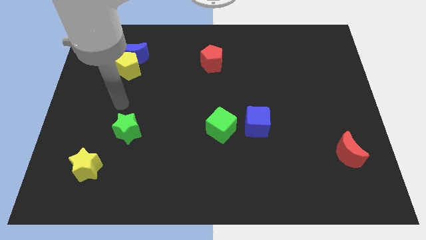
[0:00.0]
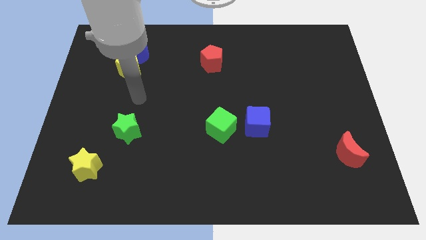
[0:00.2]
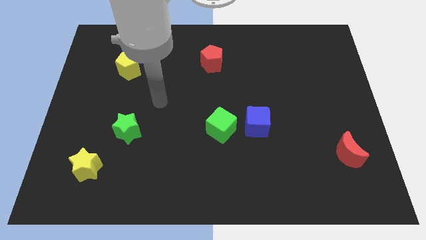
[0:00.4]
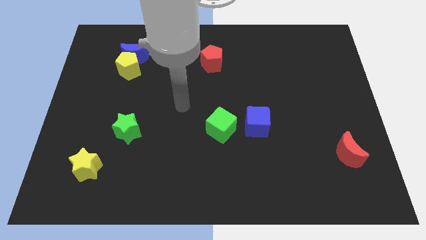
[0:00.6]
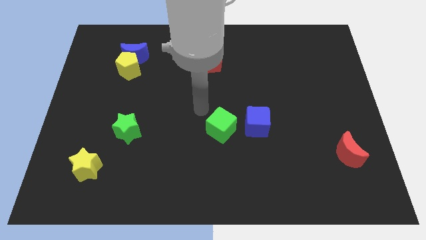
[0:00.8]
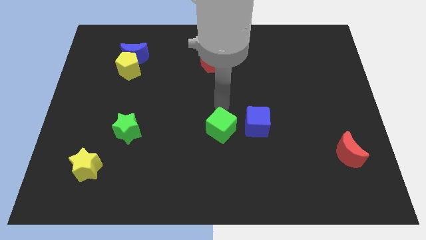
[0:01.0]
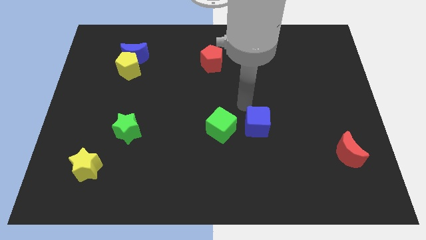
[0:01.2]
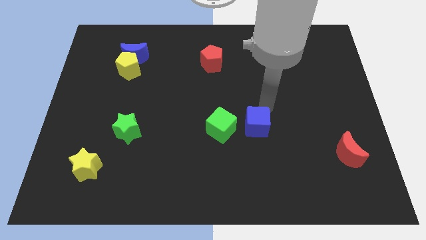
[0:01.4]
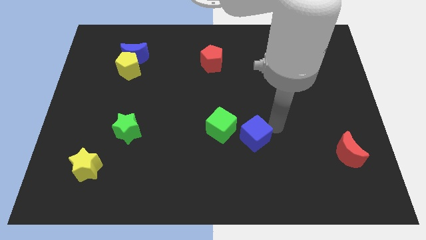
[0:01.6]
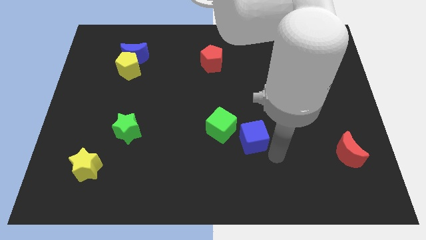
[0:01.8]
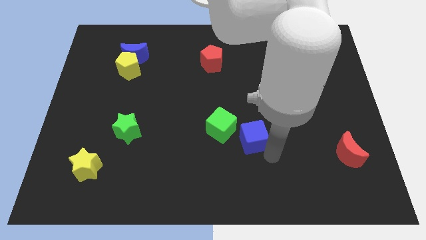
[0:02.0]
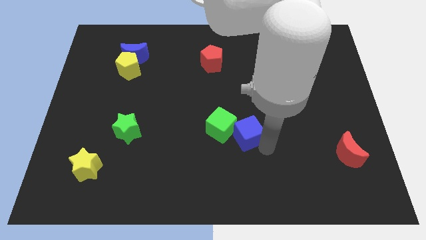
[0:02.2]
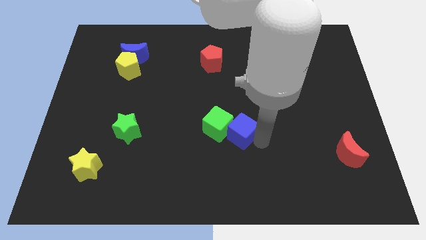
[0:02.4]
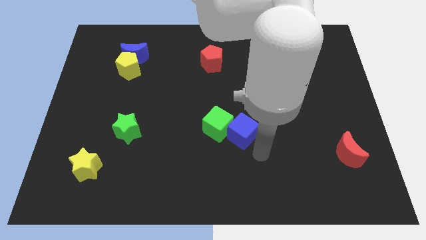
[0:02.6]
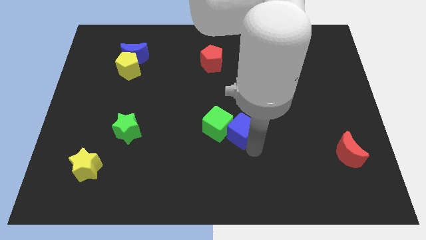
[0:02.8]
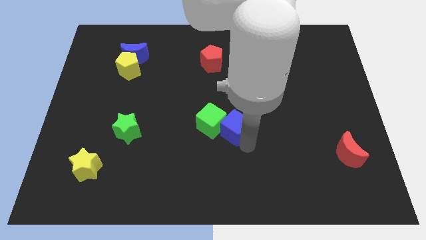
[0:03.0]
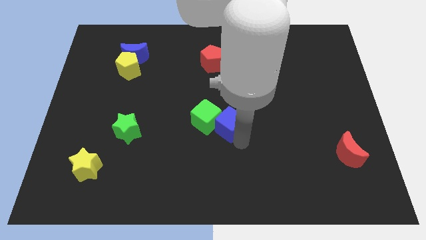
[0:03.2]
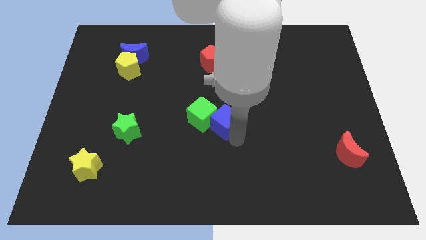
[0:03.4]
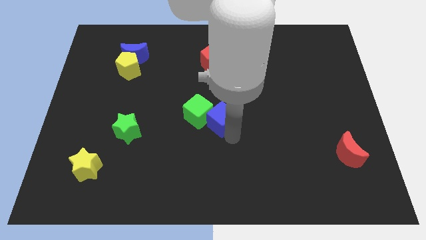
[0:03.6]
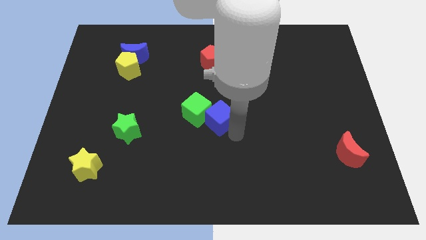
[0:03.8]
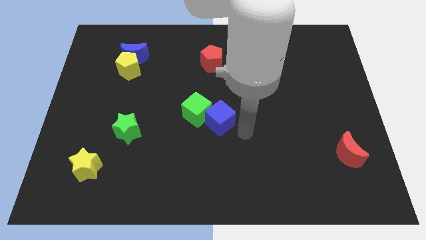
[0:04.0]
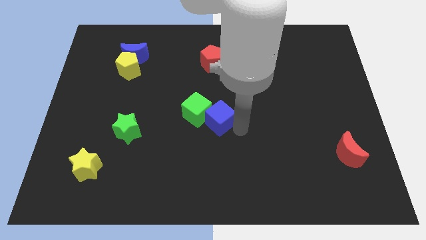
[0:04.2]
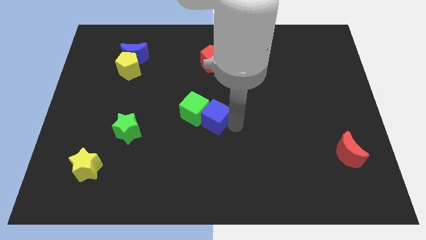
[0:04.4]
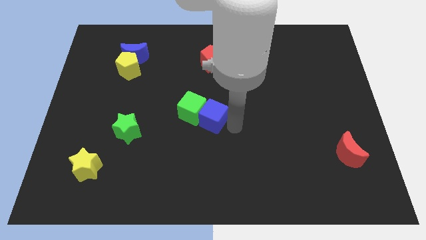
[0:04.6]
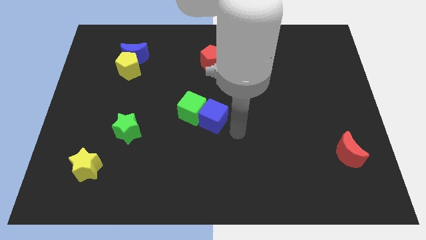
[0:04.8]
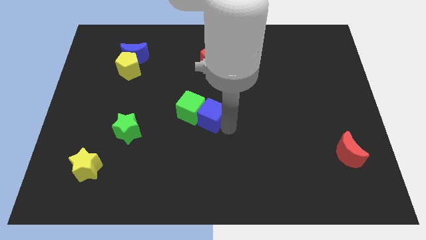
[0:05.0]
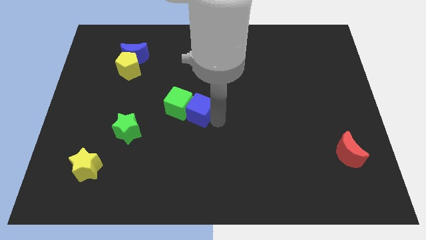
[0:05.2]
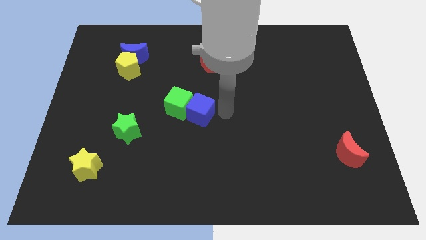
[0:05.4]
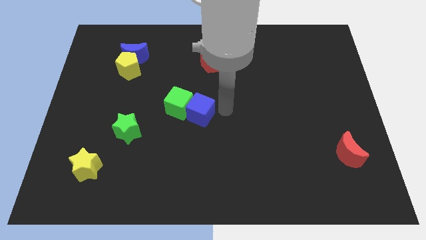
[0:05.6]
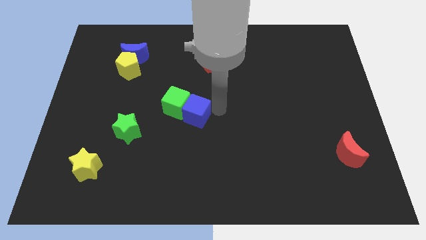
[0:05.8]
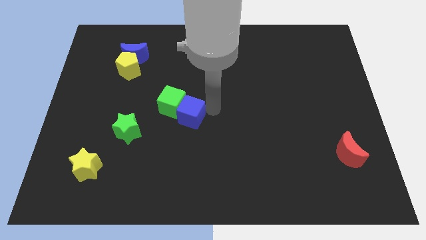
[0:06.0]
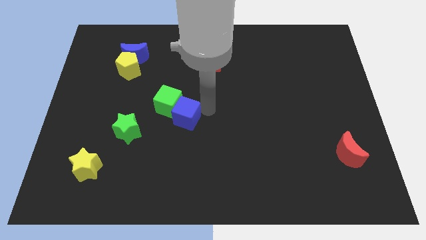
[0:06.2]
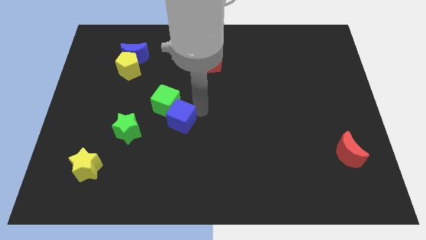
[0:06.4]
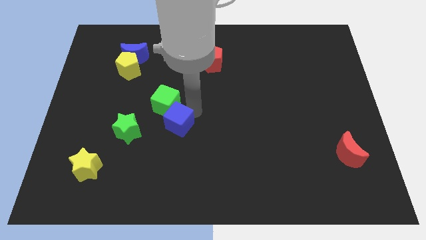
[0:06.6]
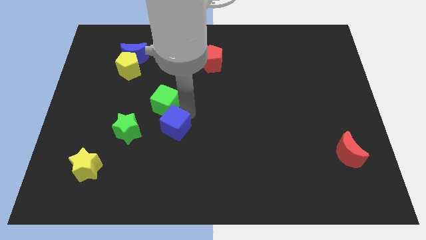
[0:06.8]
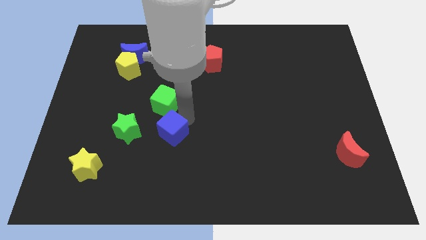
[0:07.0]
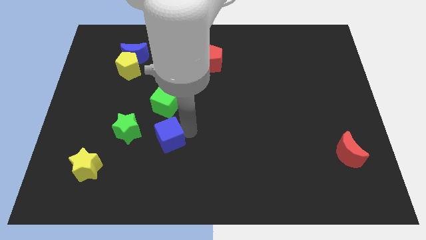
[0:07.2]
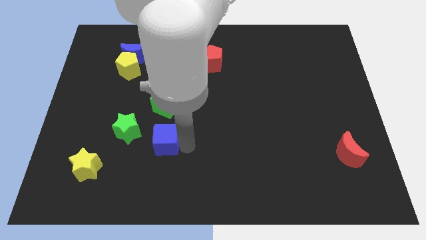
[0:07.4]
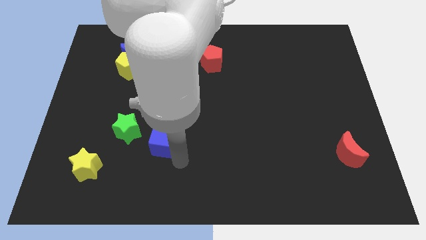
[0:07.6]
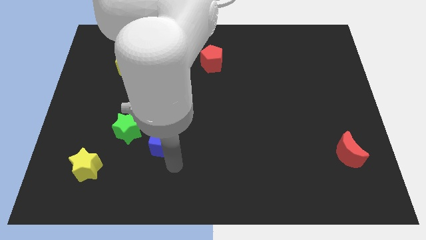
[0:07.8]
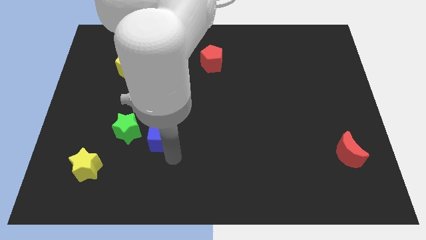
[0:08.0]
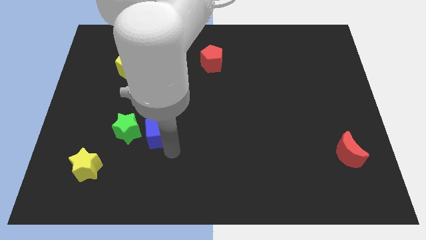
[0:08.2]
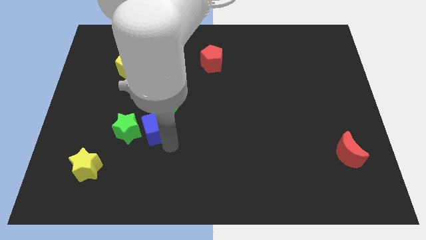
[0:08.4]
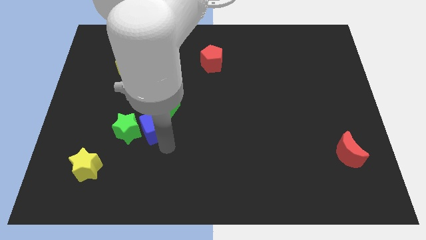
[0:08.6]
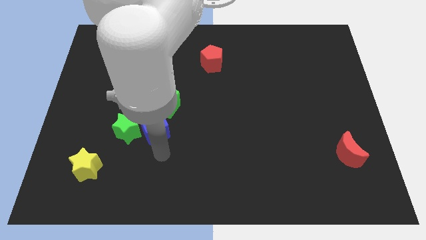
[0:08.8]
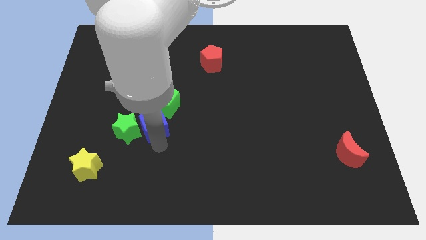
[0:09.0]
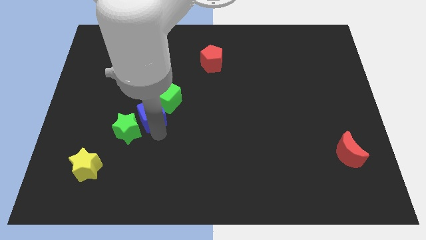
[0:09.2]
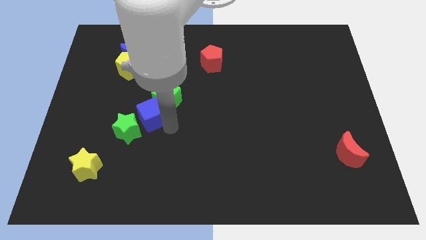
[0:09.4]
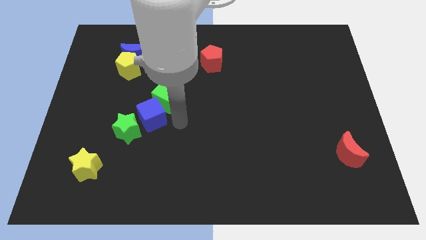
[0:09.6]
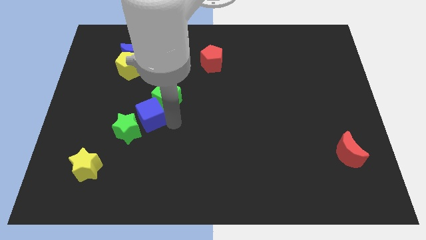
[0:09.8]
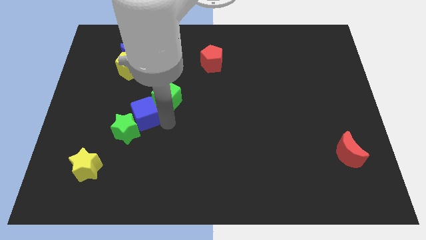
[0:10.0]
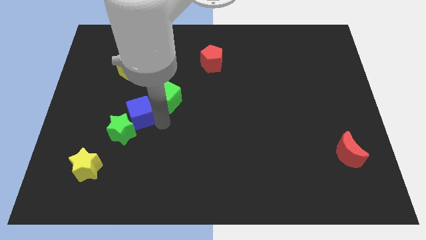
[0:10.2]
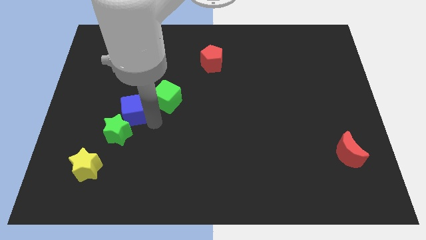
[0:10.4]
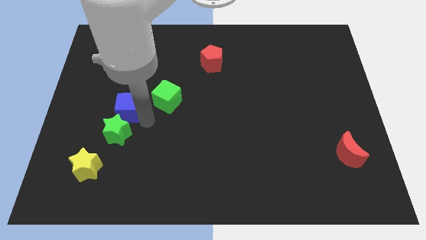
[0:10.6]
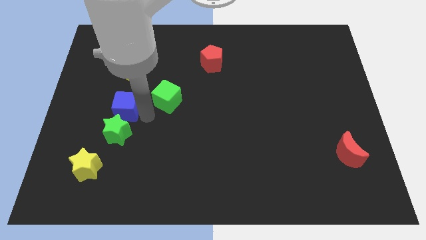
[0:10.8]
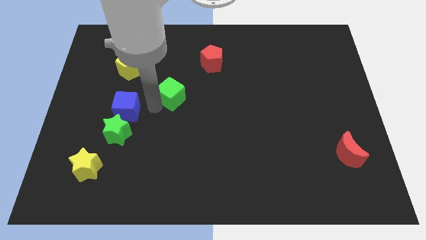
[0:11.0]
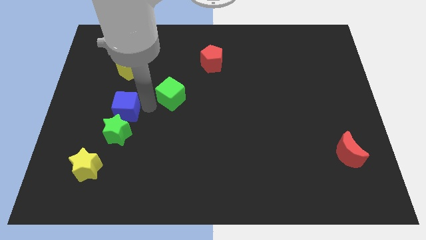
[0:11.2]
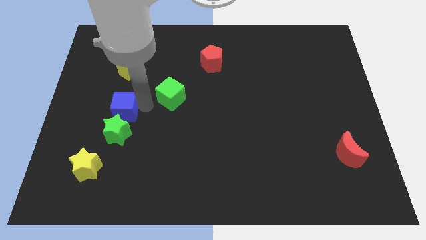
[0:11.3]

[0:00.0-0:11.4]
put the blue cube to the top left side of the green star

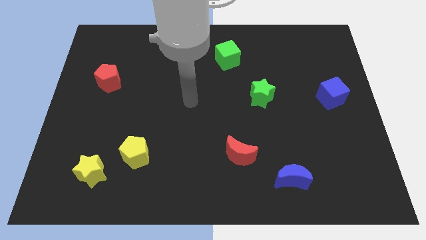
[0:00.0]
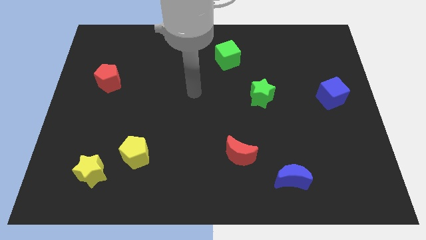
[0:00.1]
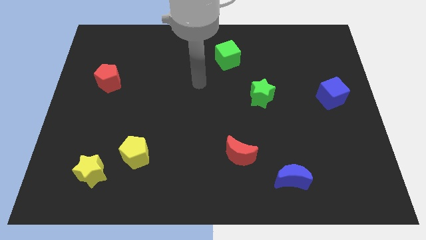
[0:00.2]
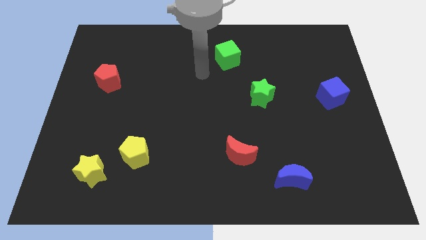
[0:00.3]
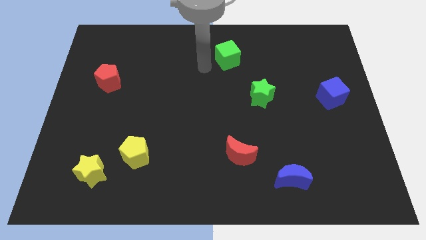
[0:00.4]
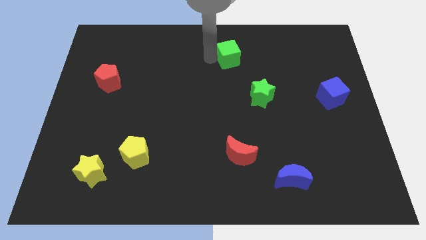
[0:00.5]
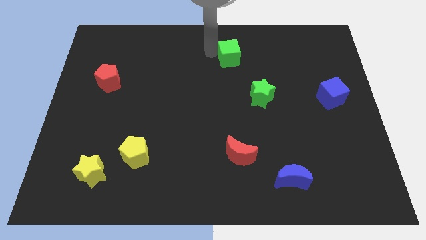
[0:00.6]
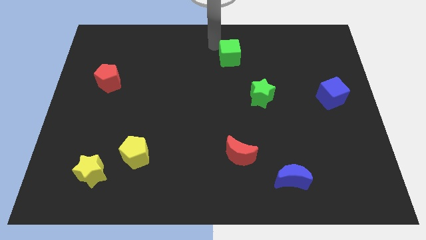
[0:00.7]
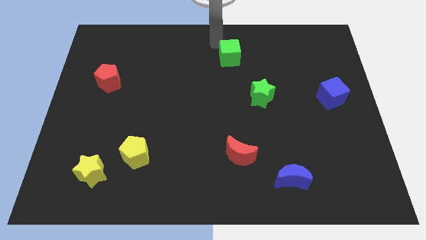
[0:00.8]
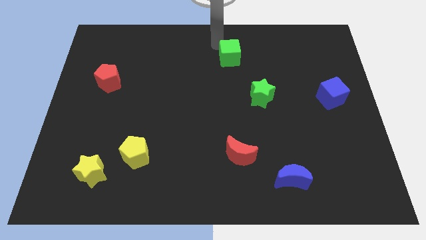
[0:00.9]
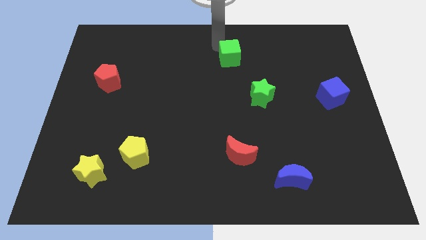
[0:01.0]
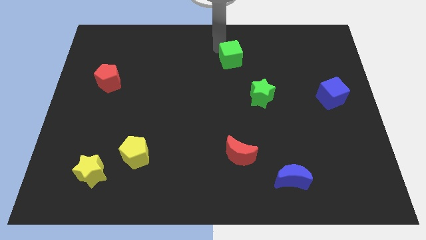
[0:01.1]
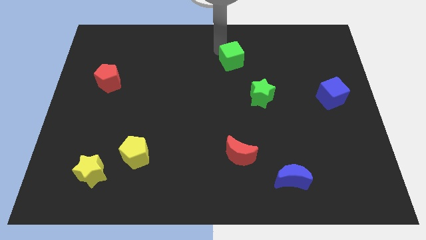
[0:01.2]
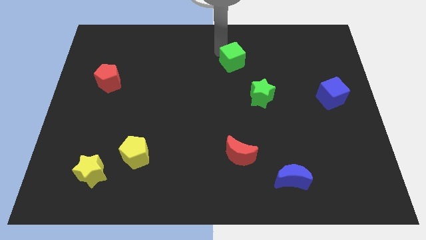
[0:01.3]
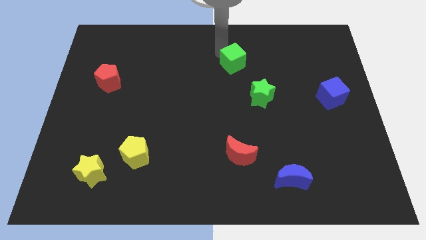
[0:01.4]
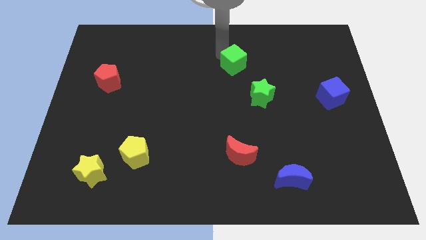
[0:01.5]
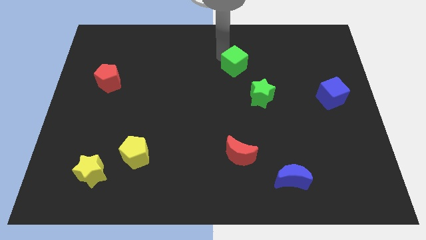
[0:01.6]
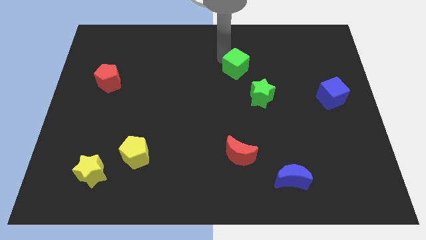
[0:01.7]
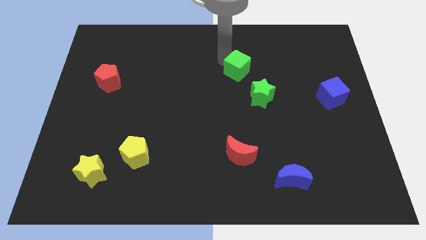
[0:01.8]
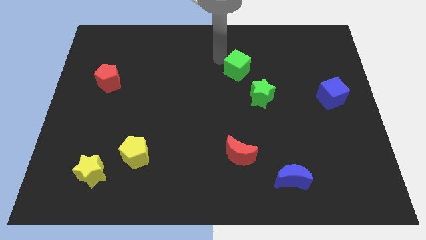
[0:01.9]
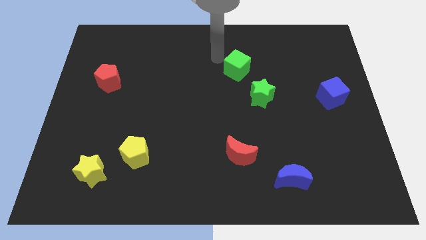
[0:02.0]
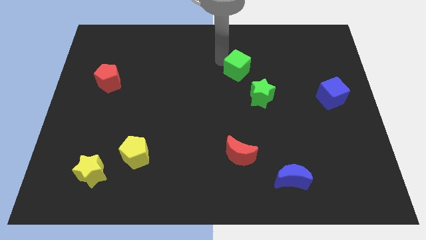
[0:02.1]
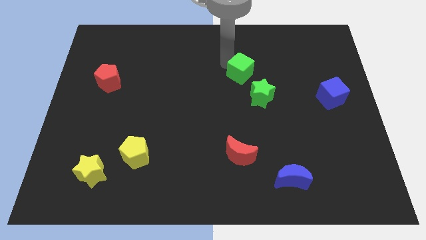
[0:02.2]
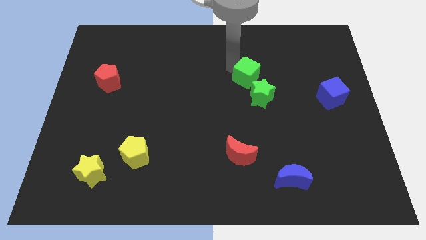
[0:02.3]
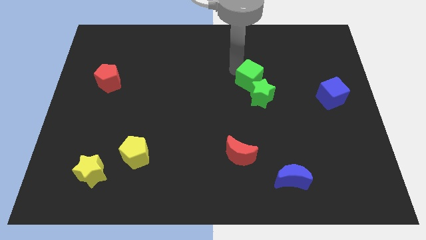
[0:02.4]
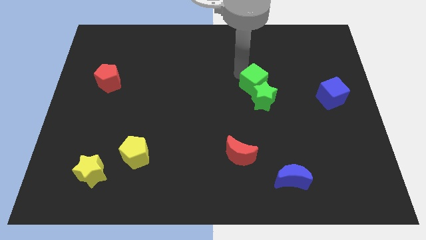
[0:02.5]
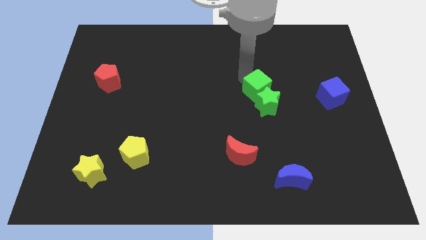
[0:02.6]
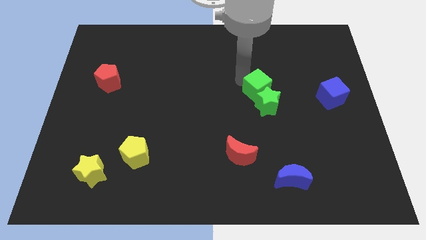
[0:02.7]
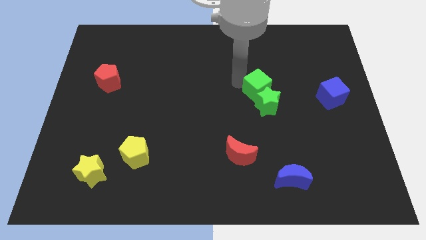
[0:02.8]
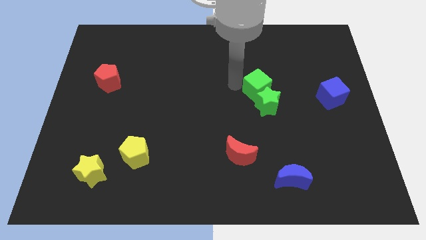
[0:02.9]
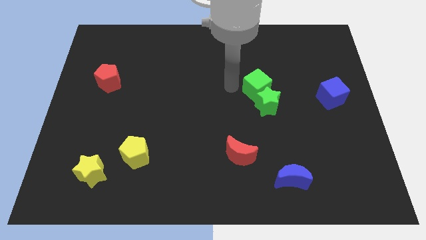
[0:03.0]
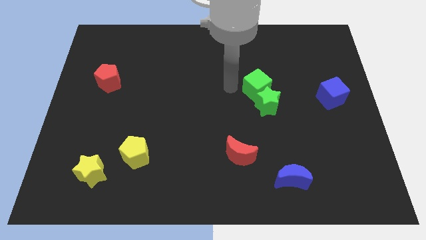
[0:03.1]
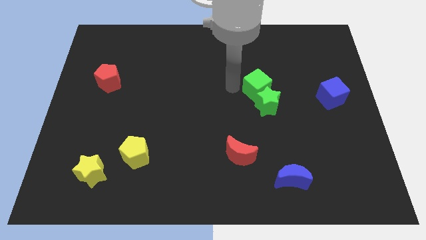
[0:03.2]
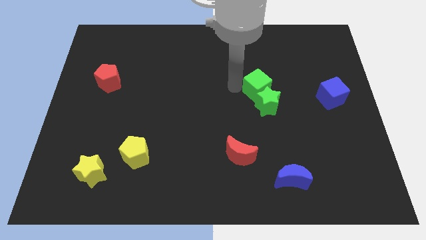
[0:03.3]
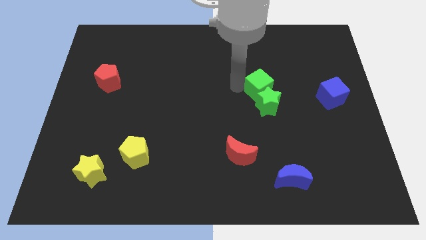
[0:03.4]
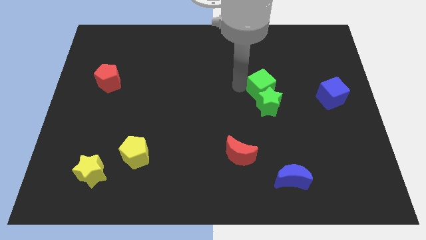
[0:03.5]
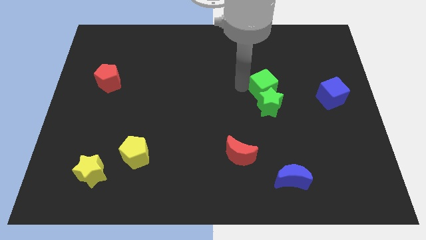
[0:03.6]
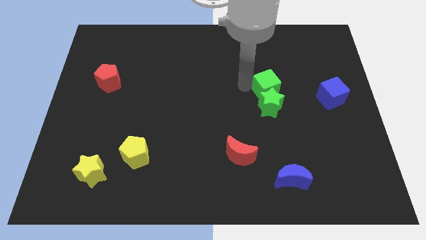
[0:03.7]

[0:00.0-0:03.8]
push the green cube to the left side of the blue cube
